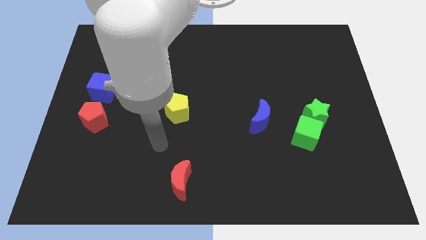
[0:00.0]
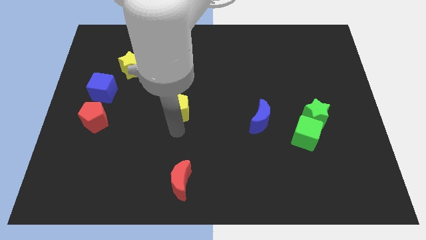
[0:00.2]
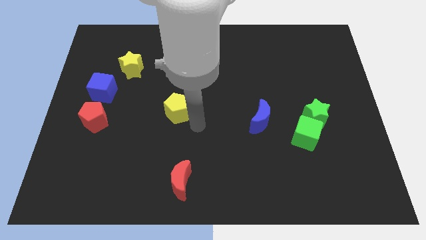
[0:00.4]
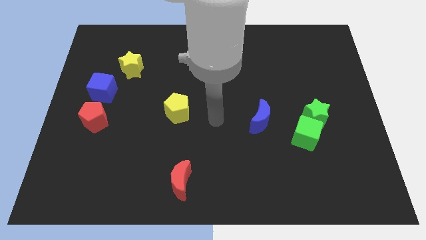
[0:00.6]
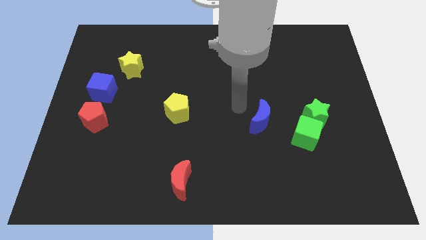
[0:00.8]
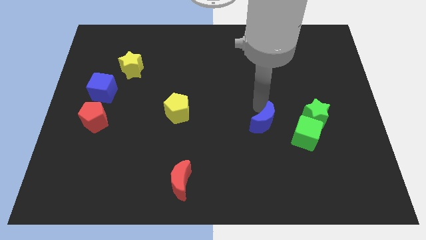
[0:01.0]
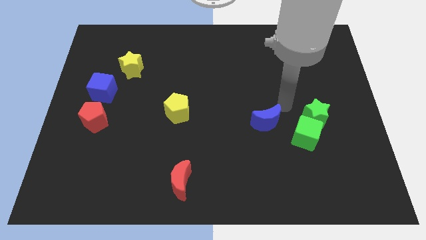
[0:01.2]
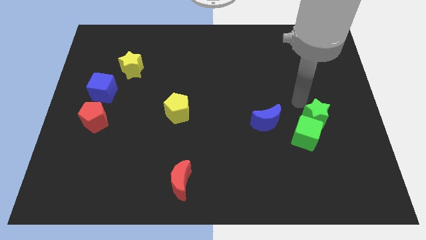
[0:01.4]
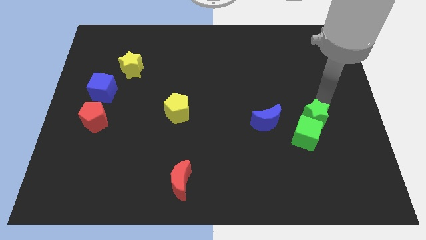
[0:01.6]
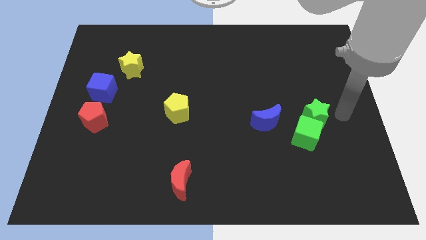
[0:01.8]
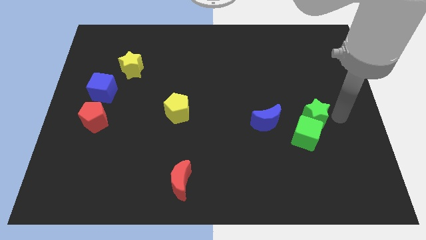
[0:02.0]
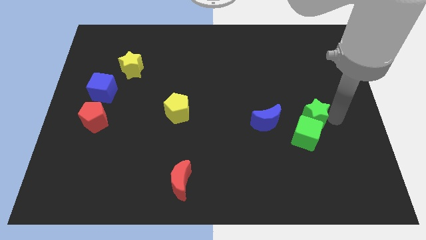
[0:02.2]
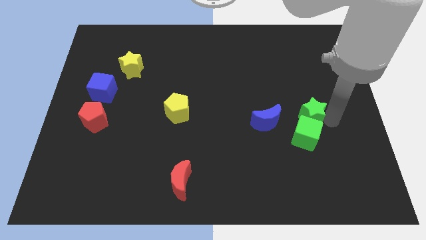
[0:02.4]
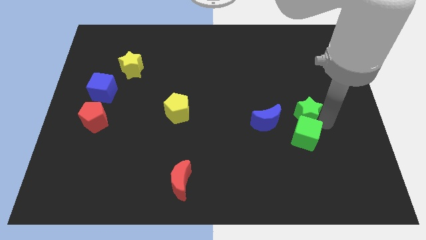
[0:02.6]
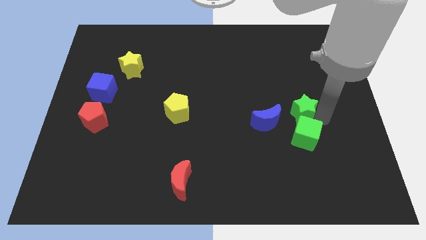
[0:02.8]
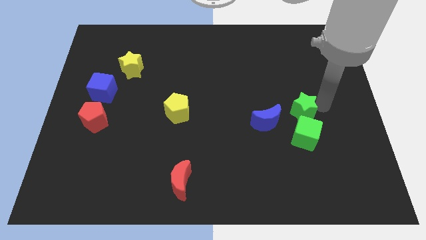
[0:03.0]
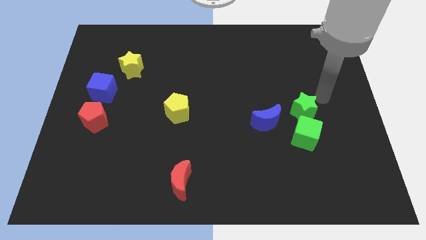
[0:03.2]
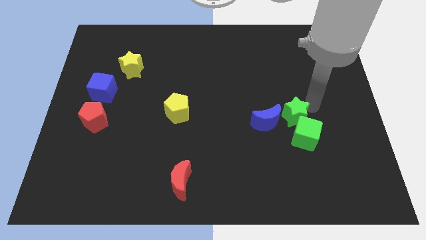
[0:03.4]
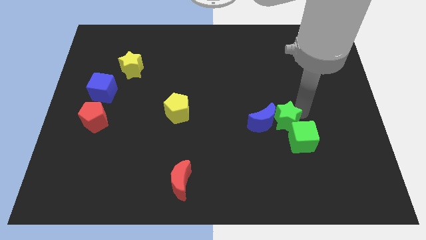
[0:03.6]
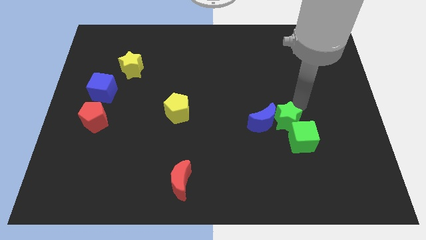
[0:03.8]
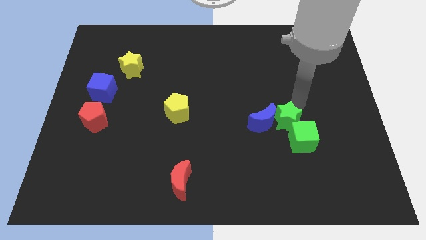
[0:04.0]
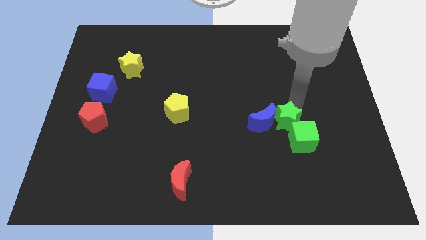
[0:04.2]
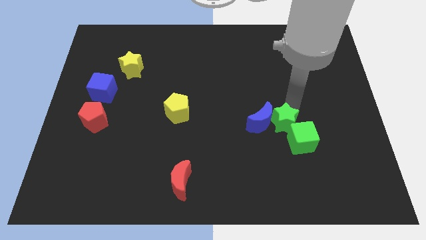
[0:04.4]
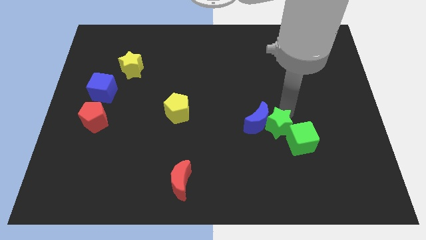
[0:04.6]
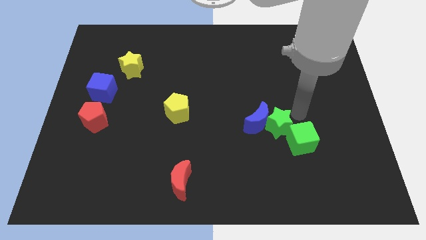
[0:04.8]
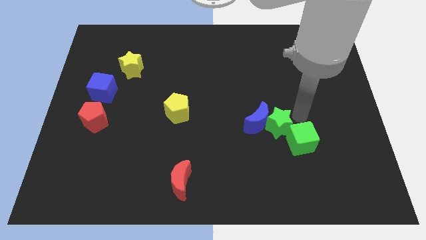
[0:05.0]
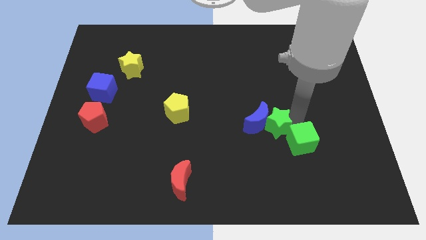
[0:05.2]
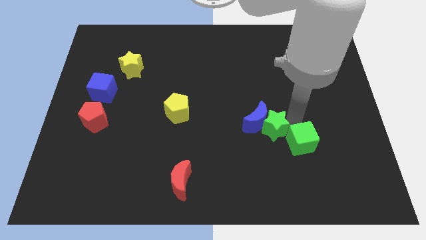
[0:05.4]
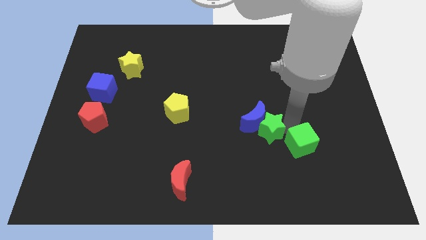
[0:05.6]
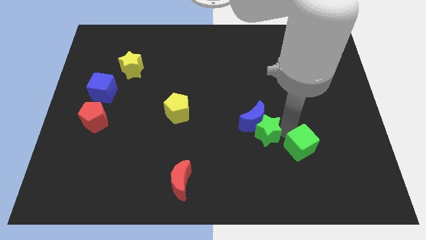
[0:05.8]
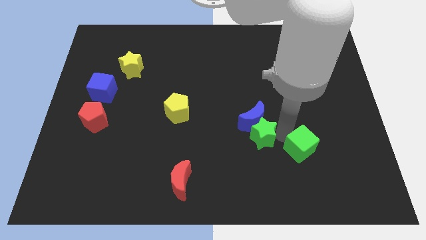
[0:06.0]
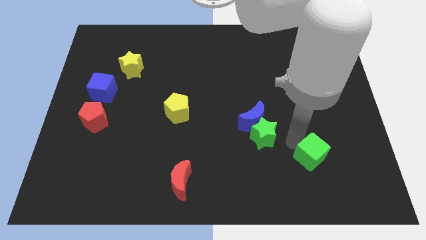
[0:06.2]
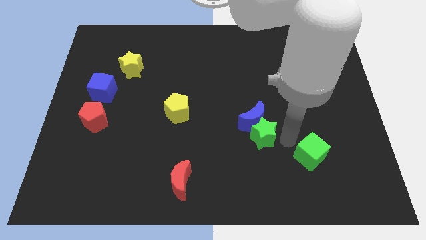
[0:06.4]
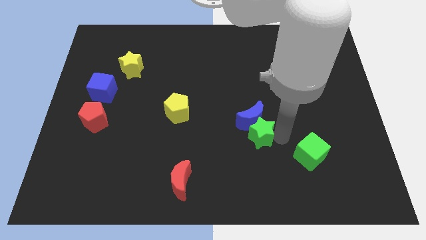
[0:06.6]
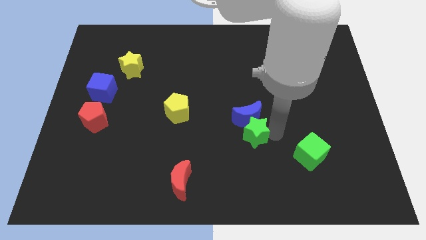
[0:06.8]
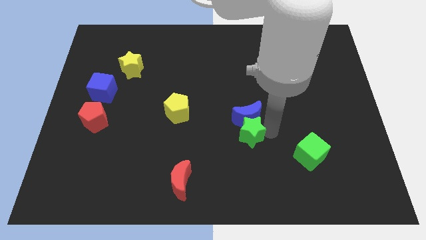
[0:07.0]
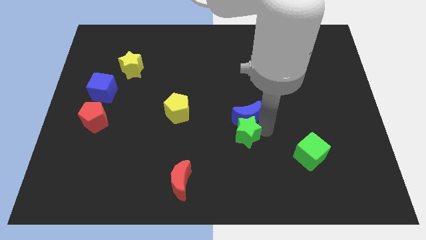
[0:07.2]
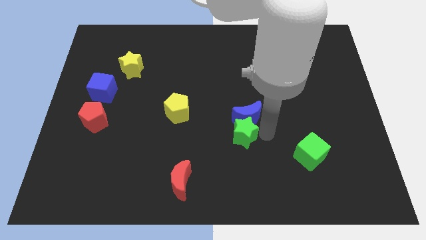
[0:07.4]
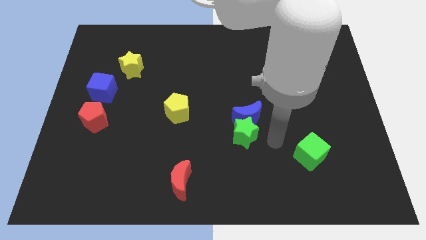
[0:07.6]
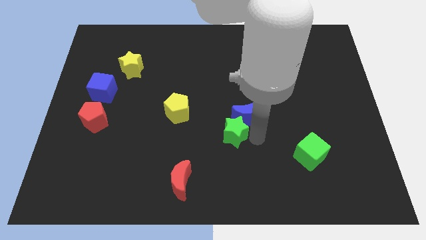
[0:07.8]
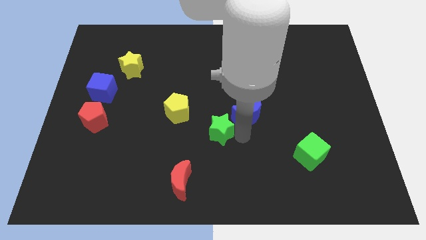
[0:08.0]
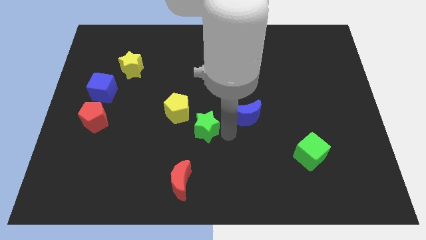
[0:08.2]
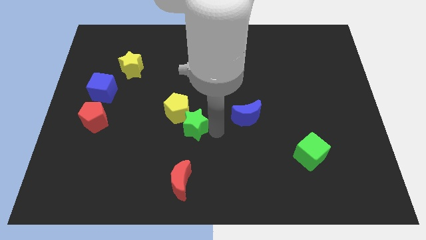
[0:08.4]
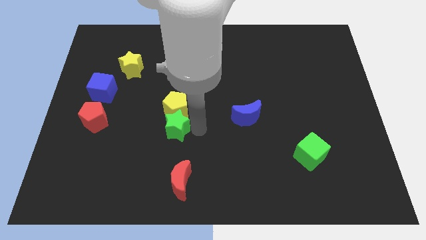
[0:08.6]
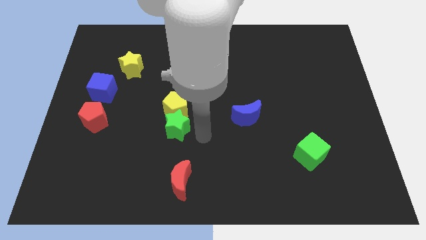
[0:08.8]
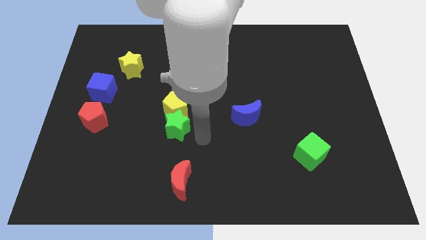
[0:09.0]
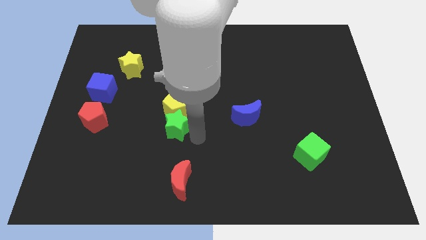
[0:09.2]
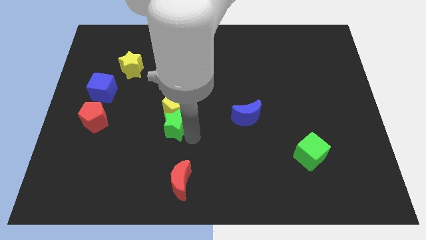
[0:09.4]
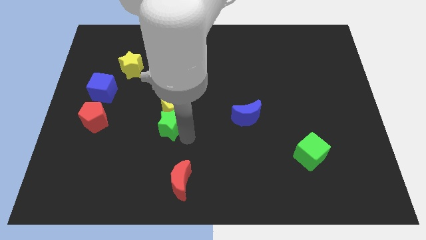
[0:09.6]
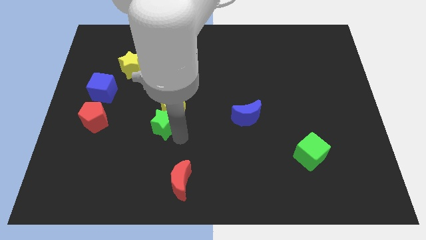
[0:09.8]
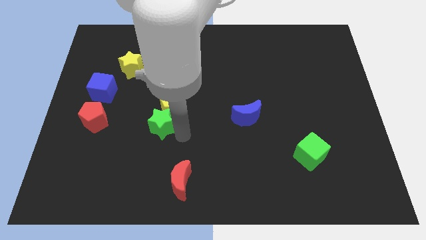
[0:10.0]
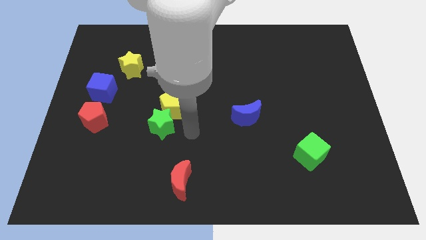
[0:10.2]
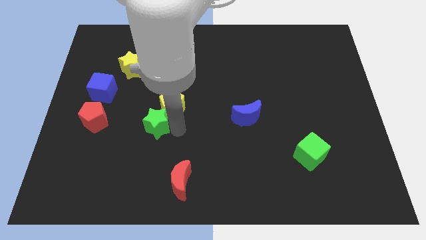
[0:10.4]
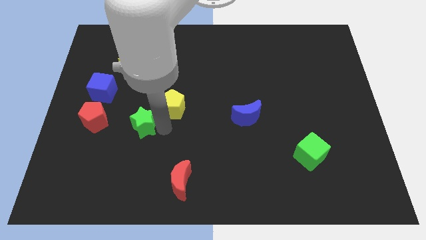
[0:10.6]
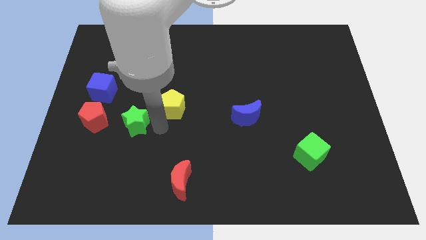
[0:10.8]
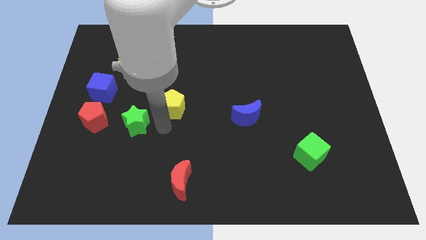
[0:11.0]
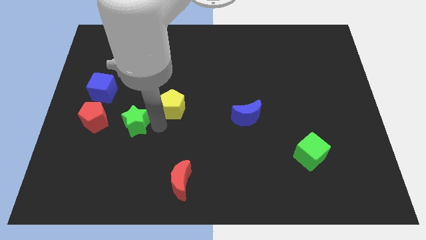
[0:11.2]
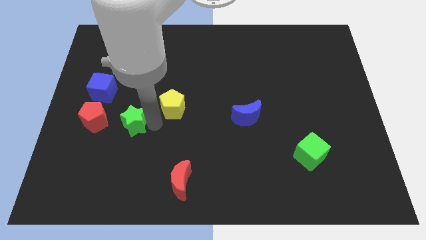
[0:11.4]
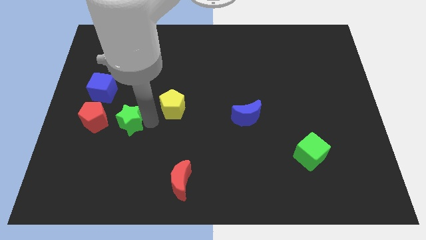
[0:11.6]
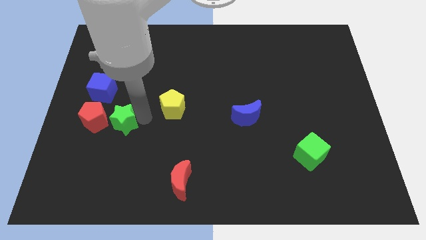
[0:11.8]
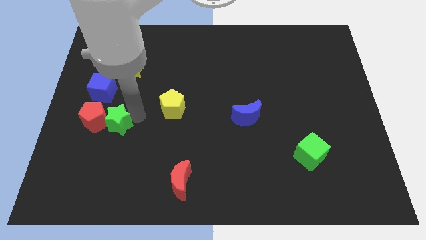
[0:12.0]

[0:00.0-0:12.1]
put the green star next to the red pentagon
